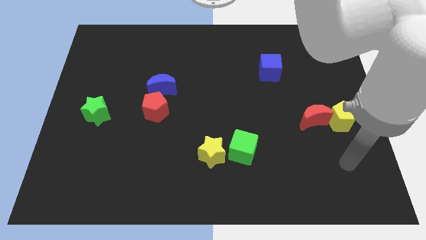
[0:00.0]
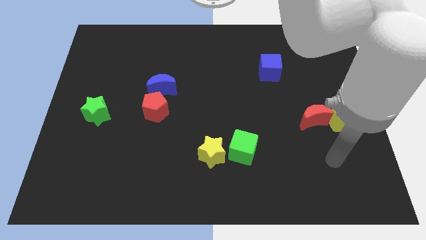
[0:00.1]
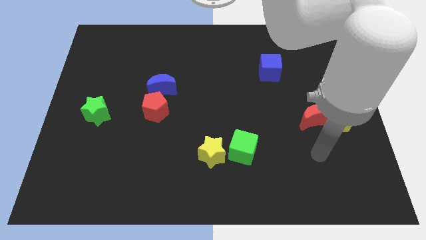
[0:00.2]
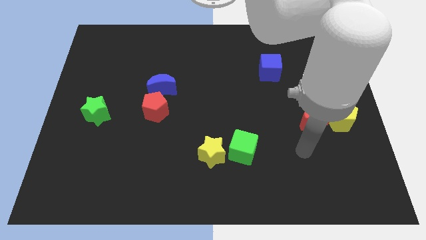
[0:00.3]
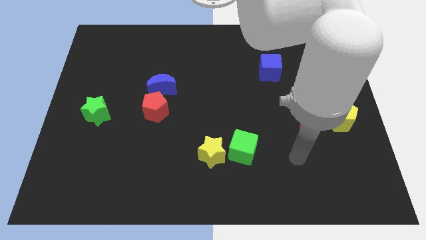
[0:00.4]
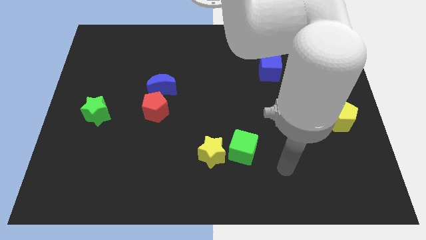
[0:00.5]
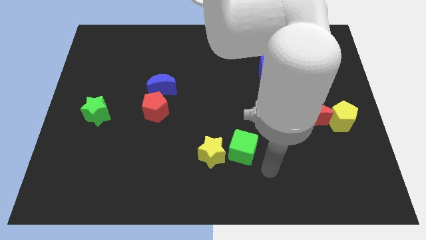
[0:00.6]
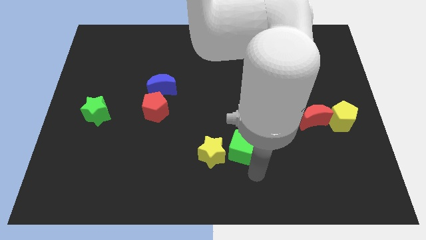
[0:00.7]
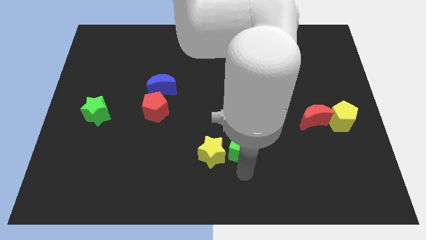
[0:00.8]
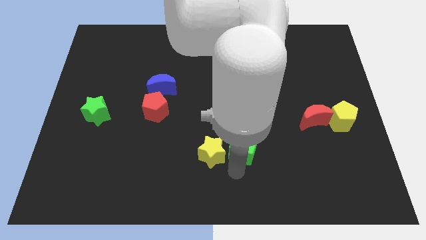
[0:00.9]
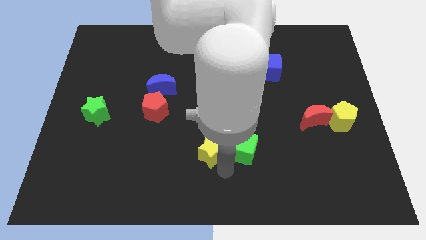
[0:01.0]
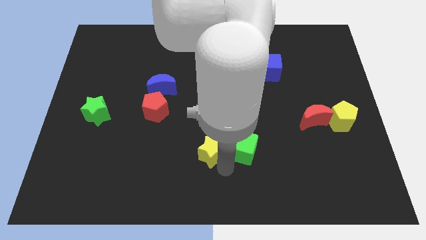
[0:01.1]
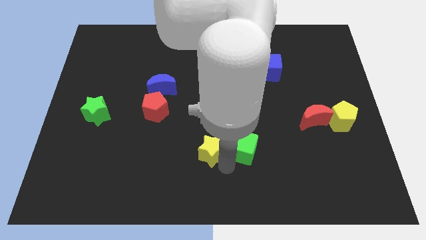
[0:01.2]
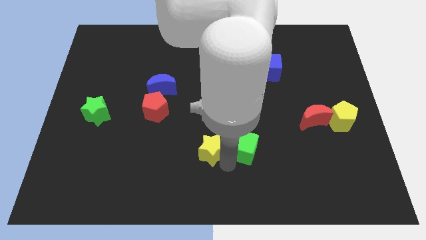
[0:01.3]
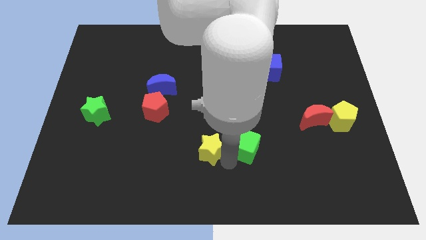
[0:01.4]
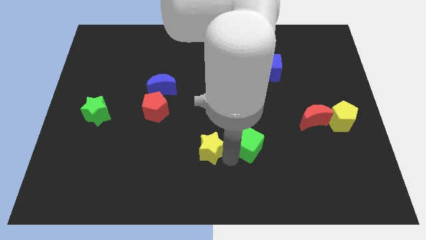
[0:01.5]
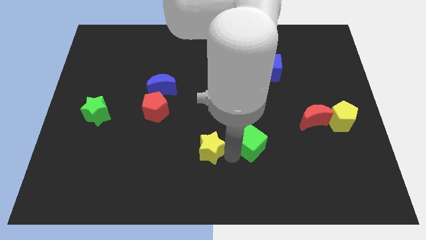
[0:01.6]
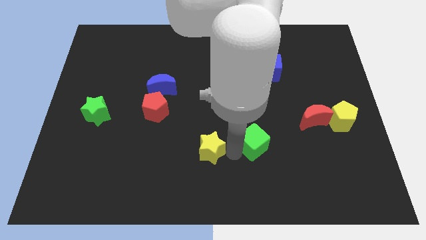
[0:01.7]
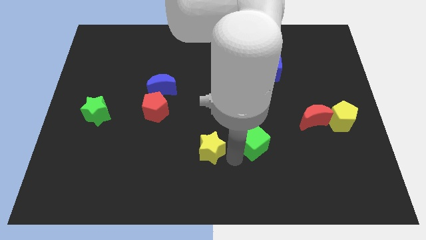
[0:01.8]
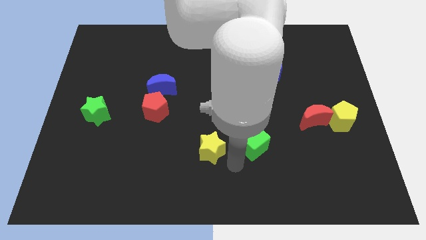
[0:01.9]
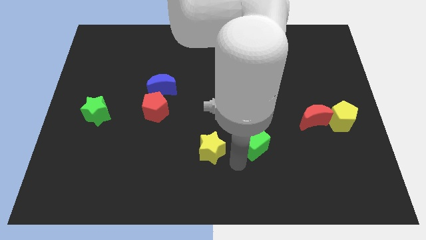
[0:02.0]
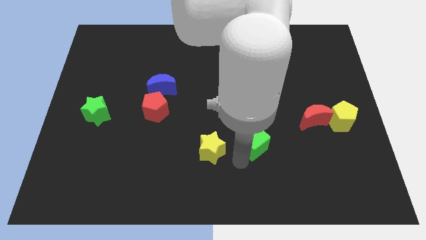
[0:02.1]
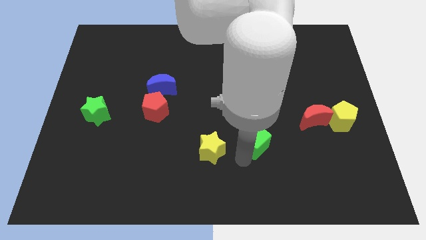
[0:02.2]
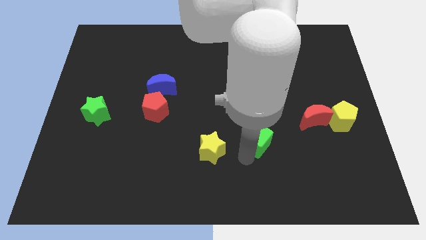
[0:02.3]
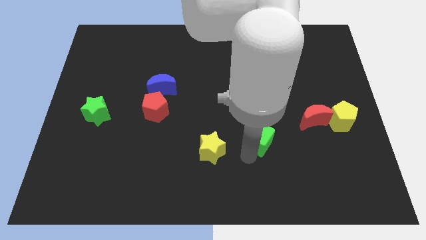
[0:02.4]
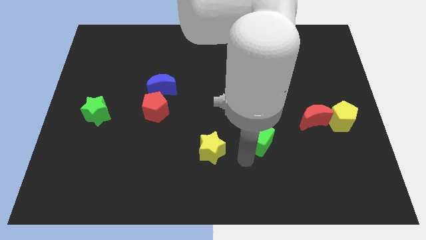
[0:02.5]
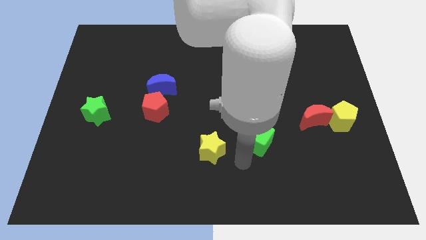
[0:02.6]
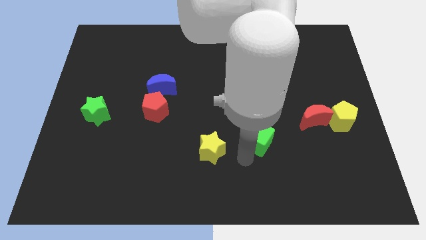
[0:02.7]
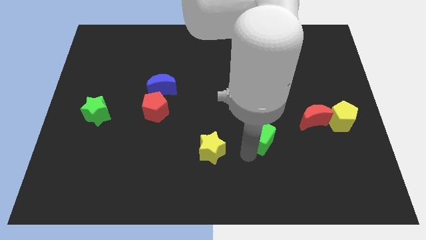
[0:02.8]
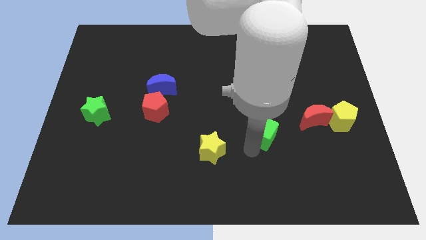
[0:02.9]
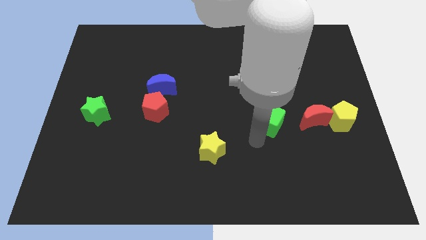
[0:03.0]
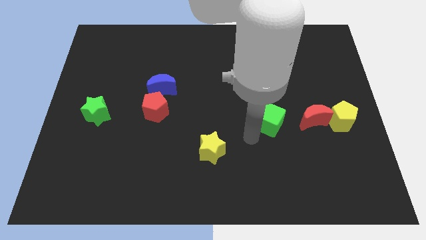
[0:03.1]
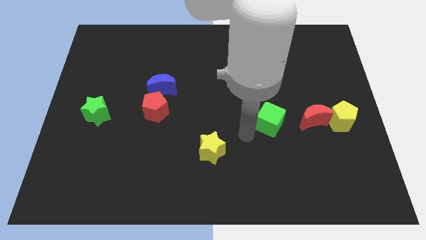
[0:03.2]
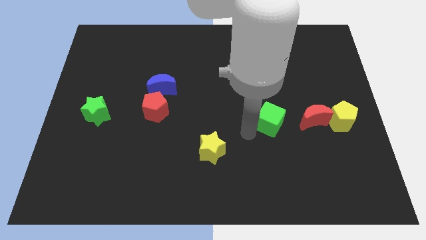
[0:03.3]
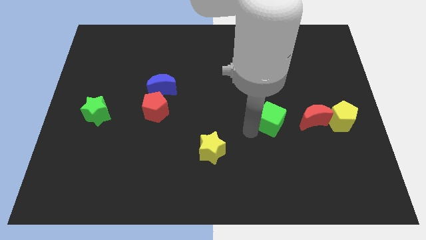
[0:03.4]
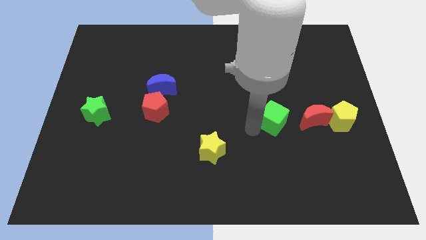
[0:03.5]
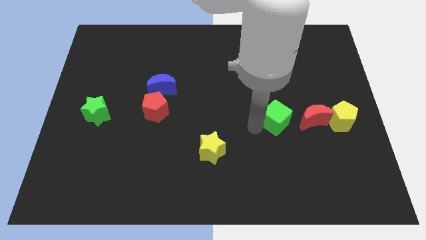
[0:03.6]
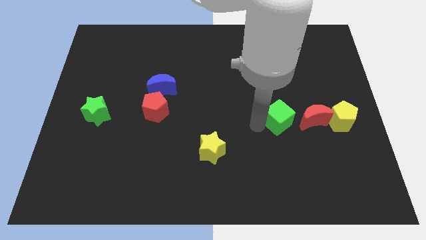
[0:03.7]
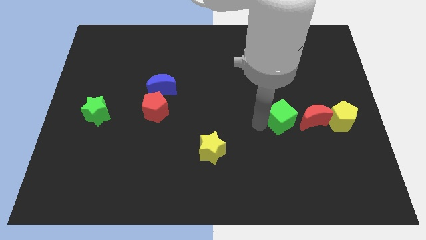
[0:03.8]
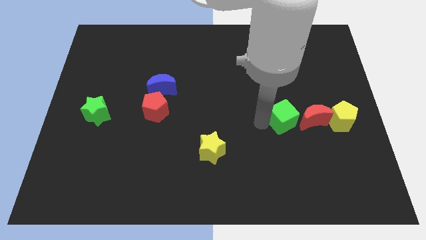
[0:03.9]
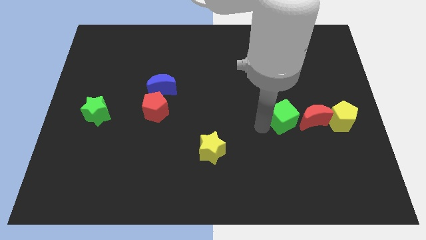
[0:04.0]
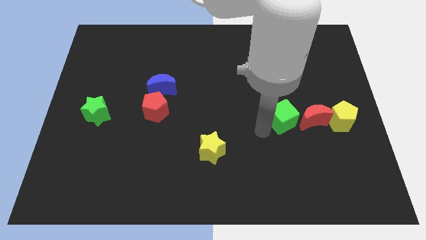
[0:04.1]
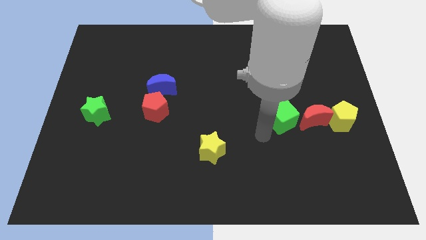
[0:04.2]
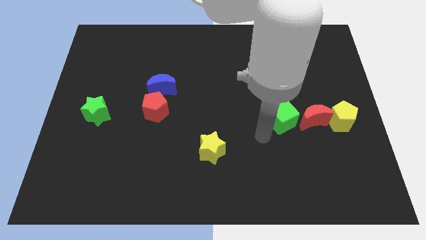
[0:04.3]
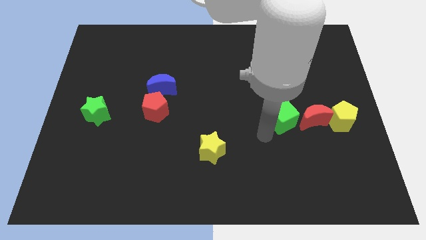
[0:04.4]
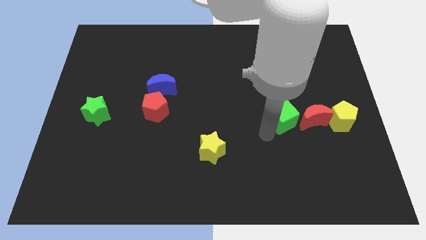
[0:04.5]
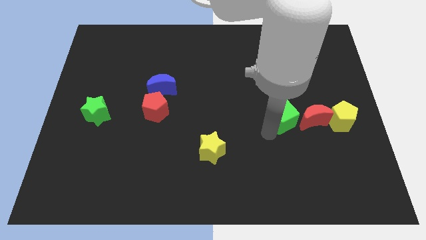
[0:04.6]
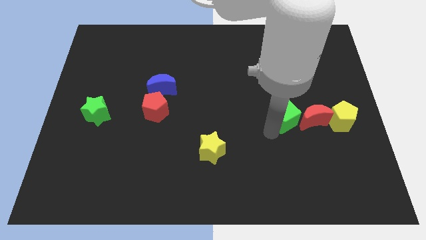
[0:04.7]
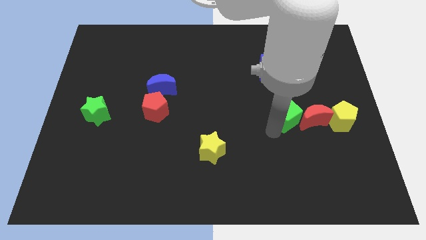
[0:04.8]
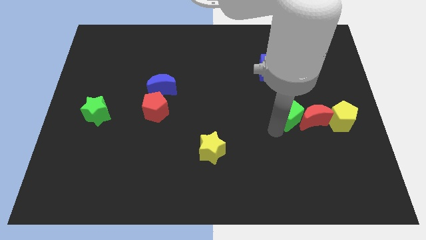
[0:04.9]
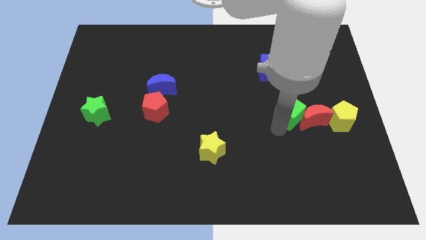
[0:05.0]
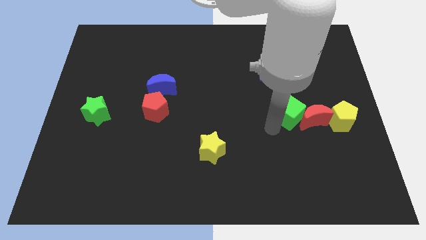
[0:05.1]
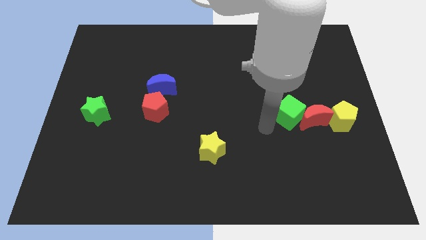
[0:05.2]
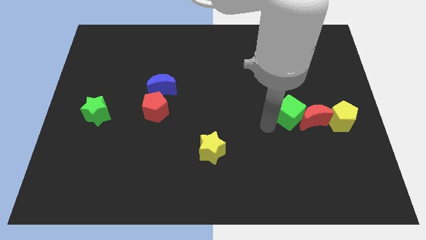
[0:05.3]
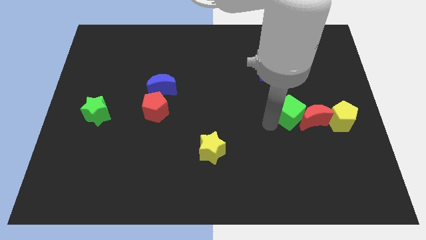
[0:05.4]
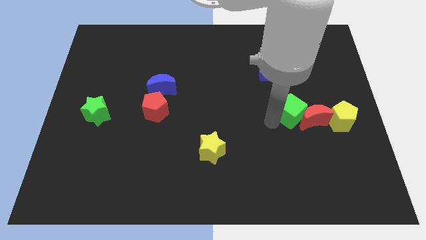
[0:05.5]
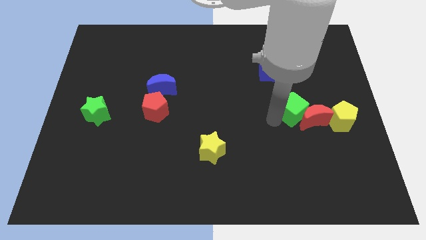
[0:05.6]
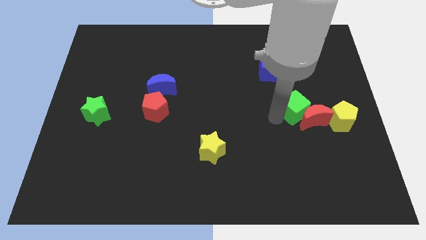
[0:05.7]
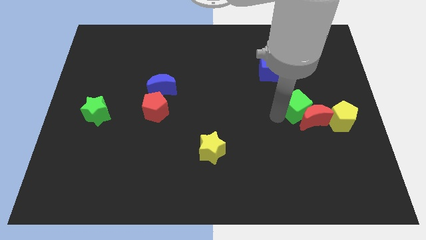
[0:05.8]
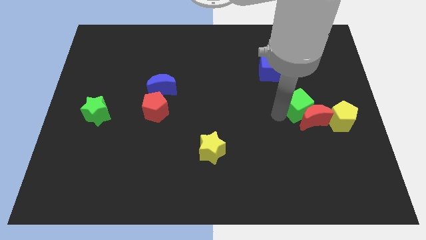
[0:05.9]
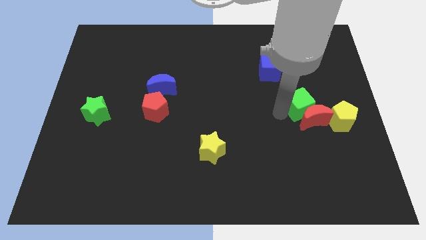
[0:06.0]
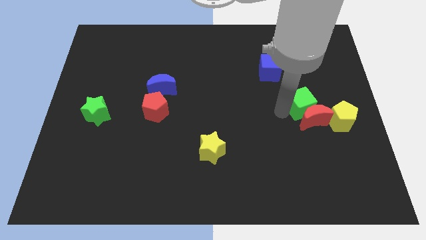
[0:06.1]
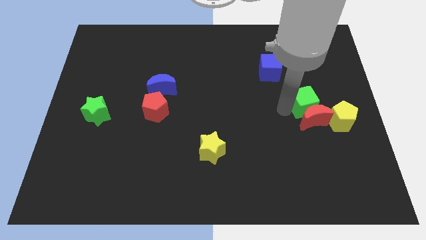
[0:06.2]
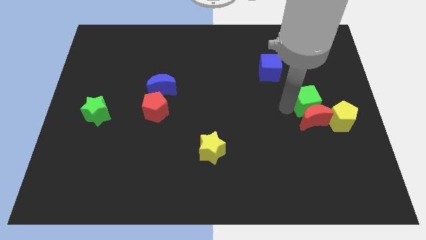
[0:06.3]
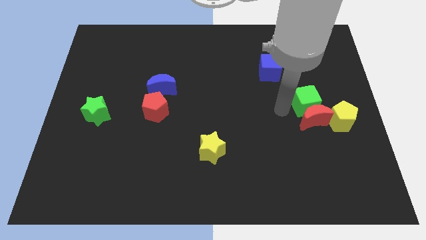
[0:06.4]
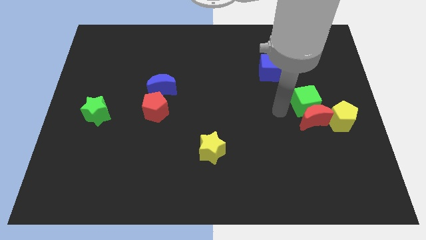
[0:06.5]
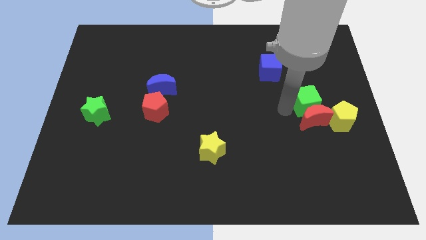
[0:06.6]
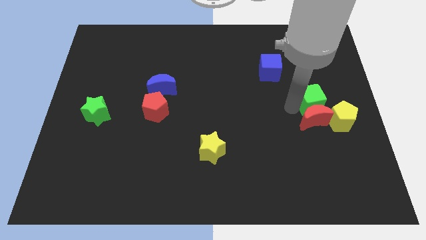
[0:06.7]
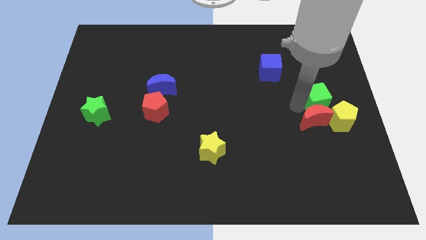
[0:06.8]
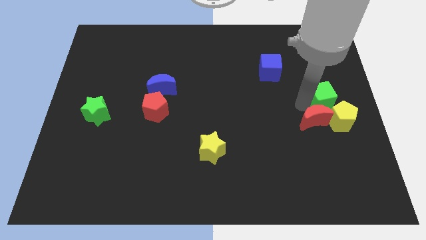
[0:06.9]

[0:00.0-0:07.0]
slide the green cube to the right side
